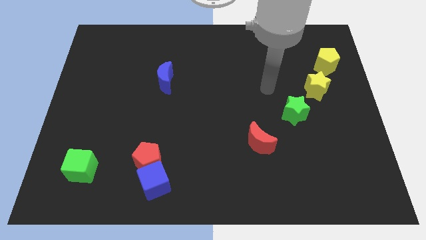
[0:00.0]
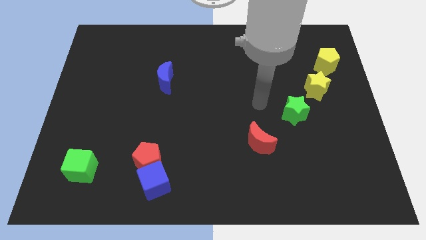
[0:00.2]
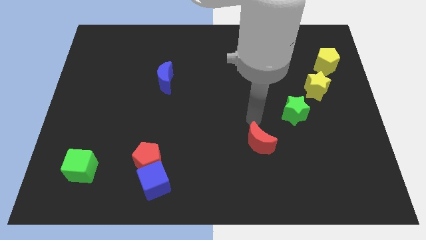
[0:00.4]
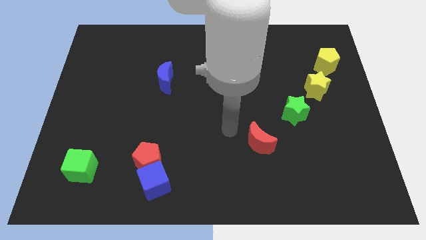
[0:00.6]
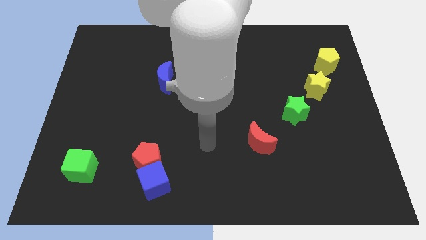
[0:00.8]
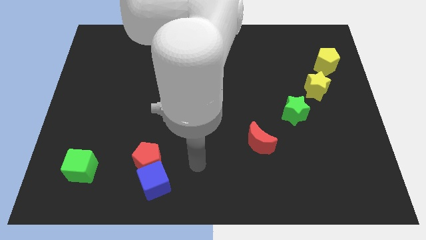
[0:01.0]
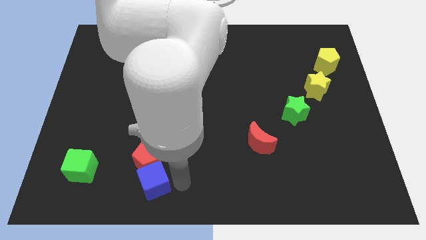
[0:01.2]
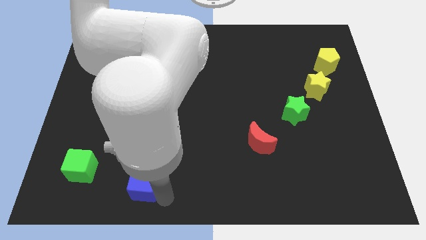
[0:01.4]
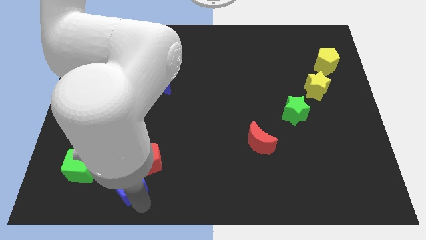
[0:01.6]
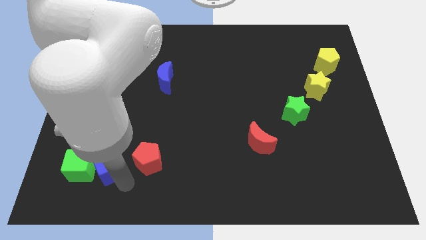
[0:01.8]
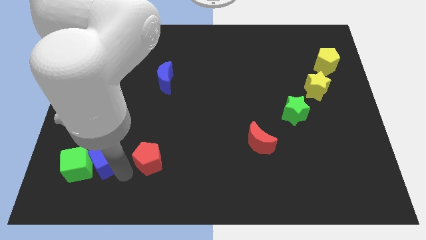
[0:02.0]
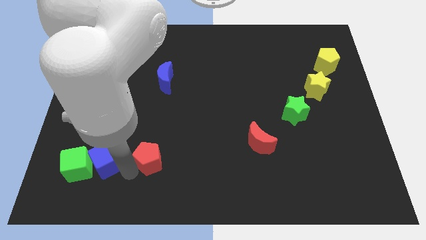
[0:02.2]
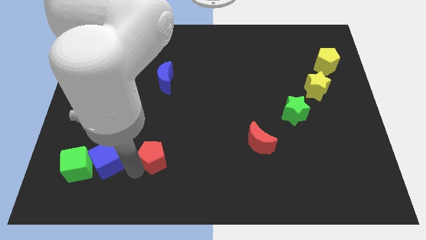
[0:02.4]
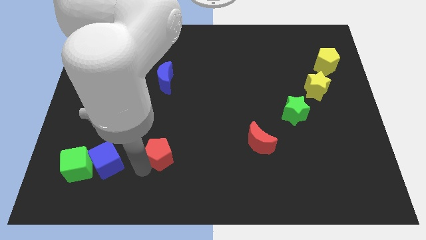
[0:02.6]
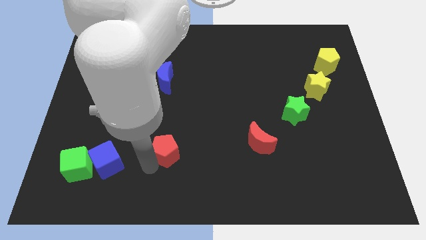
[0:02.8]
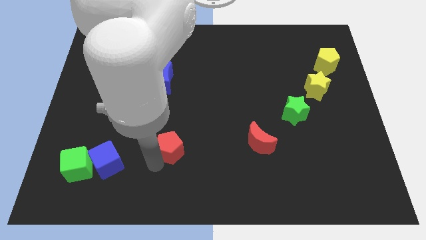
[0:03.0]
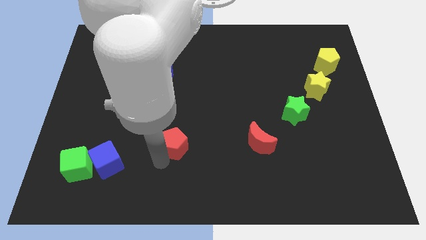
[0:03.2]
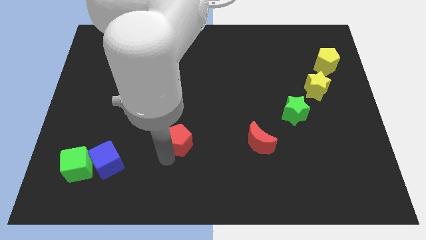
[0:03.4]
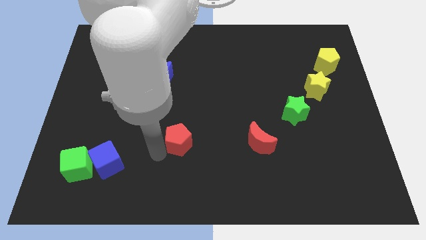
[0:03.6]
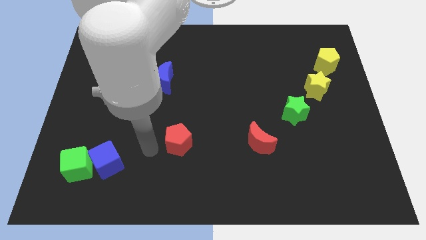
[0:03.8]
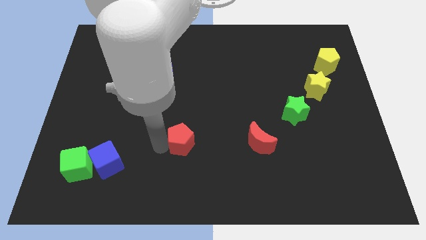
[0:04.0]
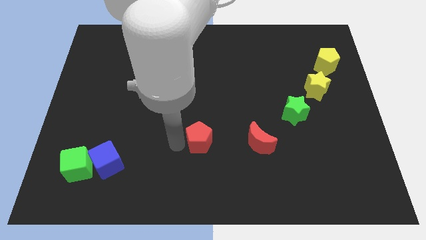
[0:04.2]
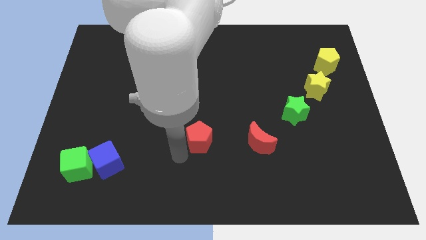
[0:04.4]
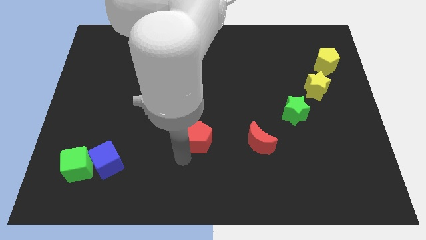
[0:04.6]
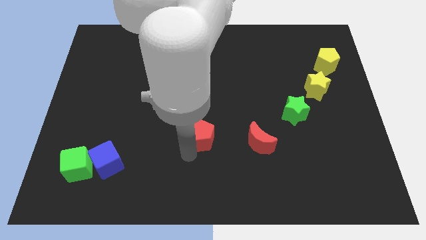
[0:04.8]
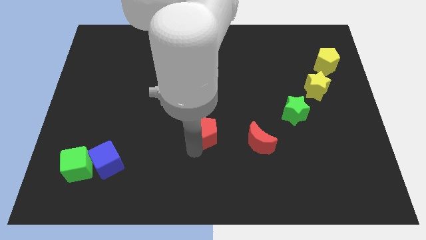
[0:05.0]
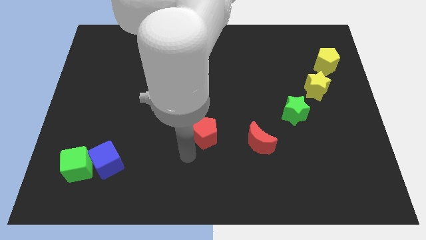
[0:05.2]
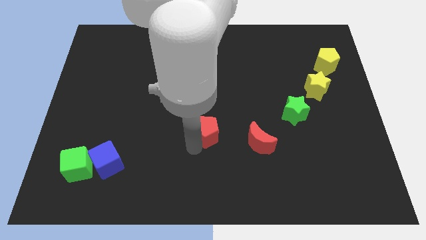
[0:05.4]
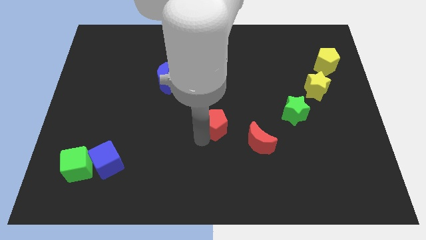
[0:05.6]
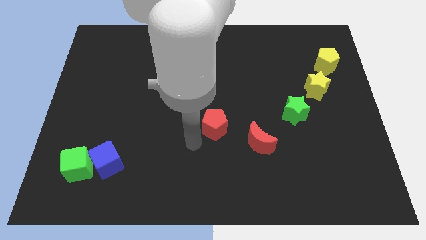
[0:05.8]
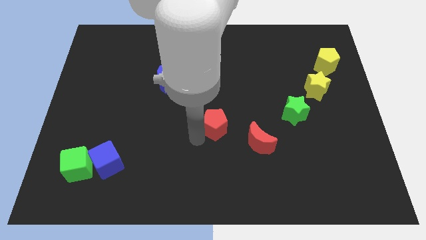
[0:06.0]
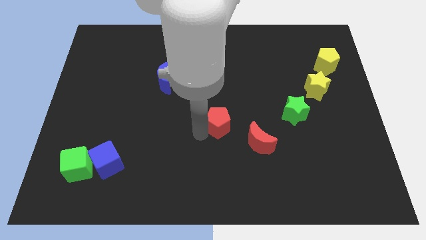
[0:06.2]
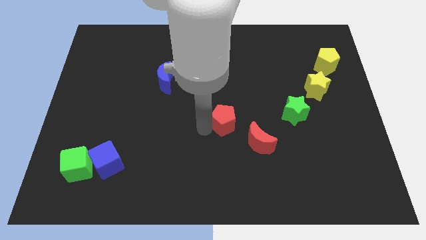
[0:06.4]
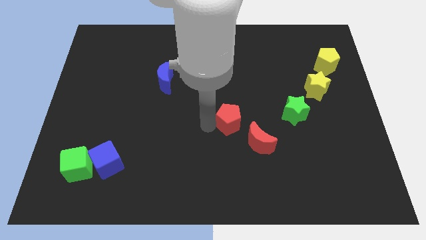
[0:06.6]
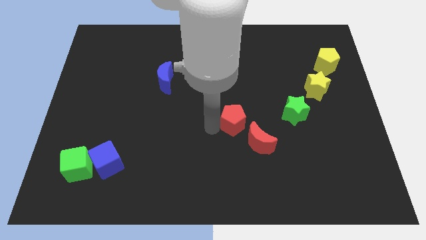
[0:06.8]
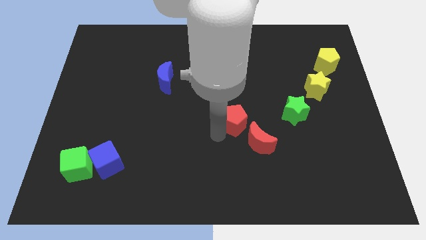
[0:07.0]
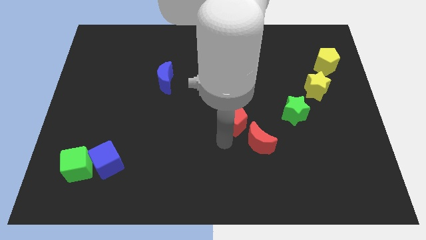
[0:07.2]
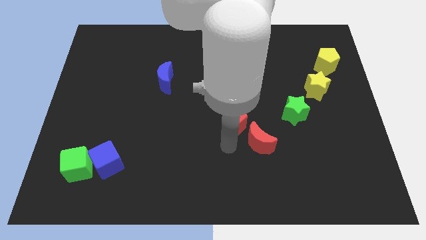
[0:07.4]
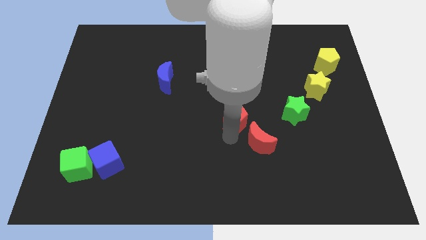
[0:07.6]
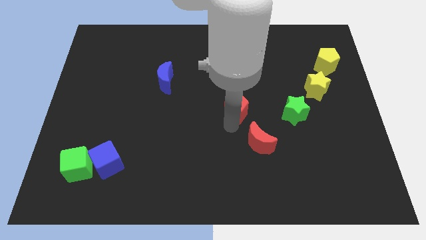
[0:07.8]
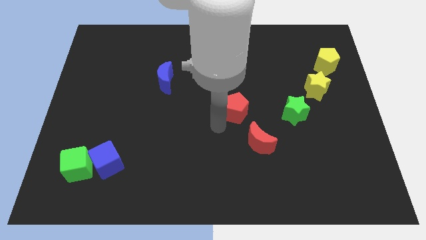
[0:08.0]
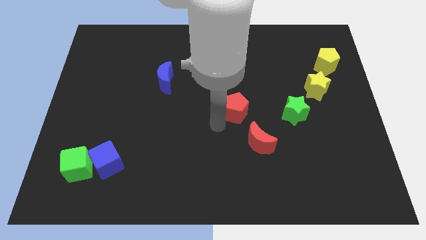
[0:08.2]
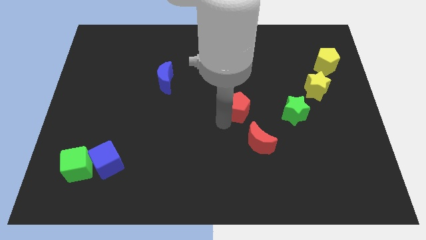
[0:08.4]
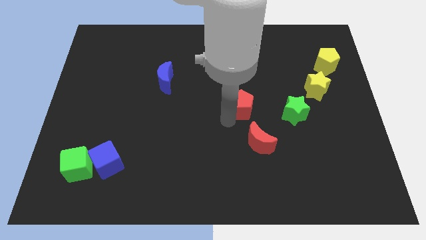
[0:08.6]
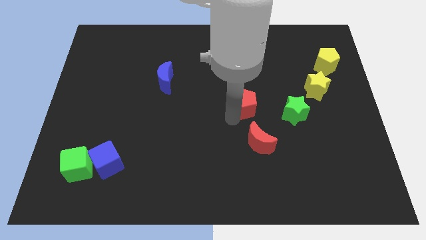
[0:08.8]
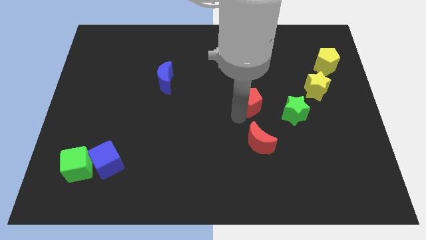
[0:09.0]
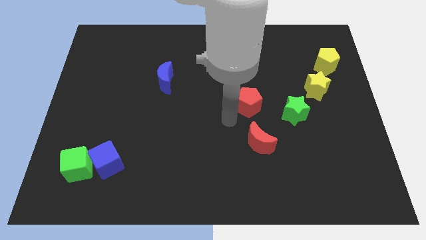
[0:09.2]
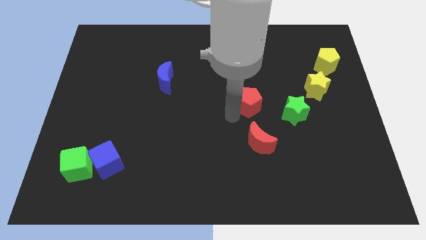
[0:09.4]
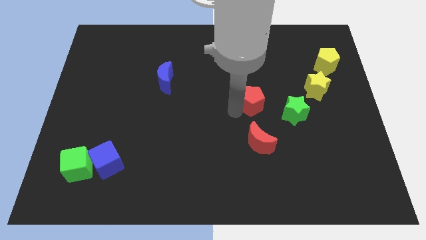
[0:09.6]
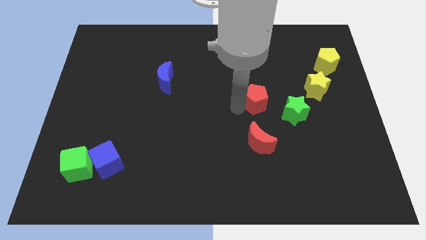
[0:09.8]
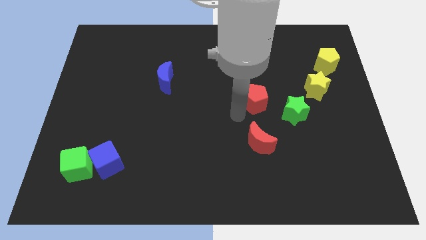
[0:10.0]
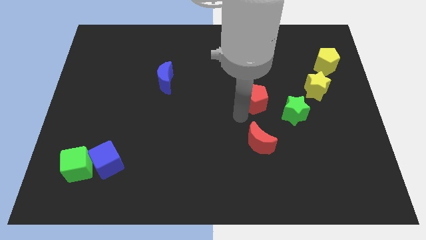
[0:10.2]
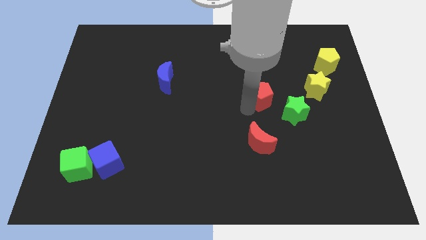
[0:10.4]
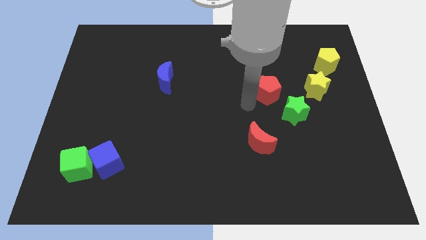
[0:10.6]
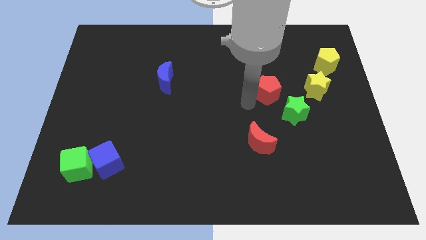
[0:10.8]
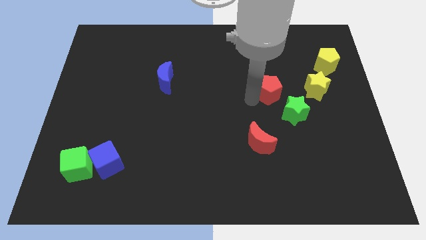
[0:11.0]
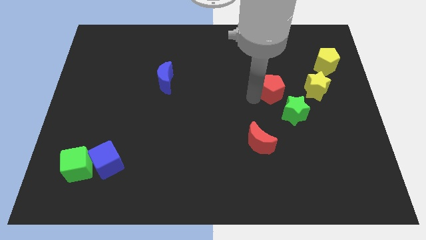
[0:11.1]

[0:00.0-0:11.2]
move the red pentagon to the top of the green star

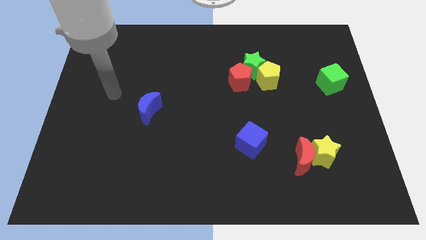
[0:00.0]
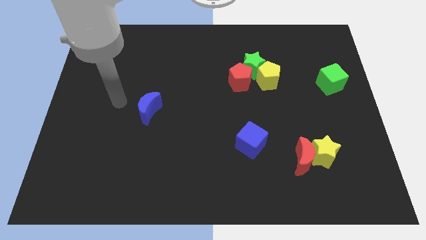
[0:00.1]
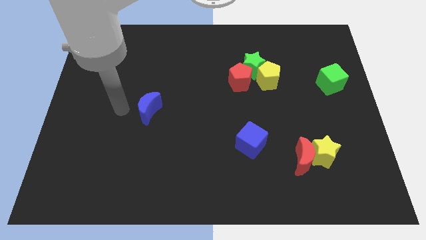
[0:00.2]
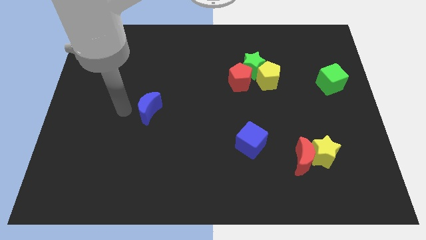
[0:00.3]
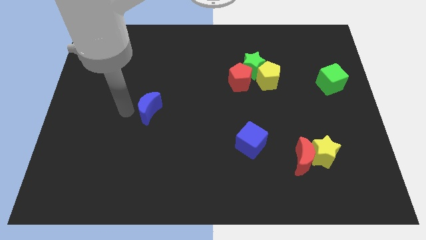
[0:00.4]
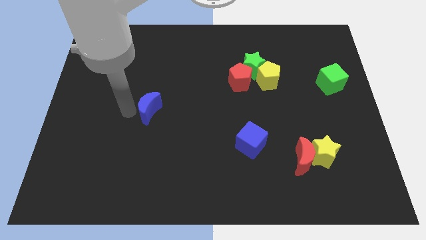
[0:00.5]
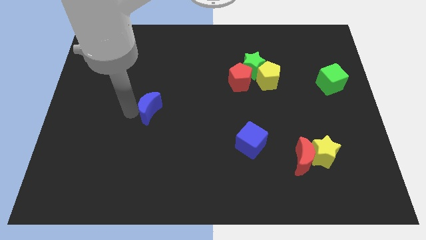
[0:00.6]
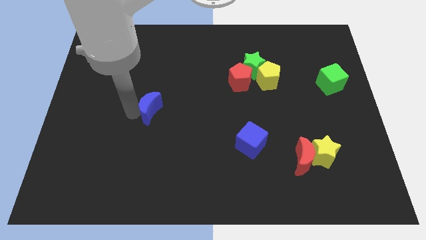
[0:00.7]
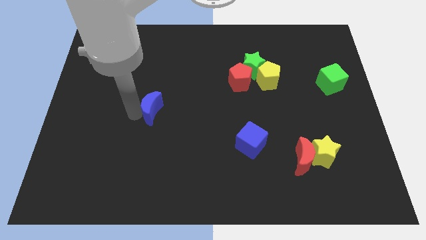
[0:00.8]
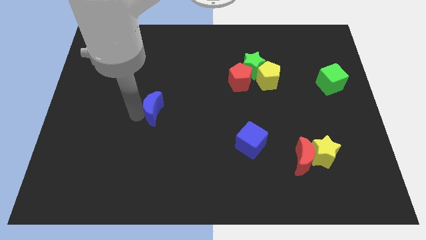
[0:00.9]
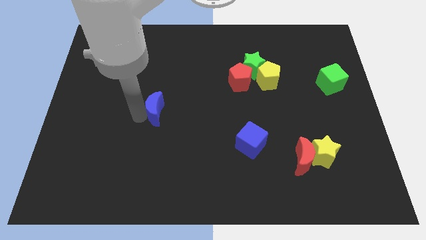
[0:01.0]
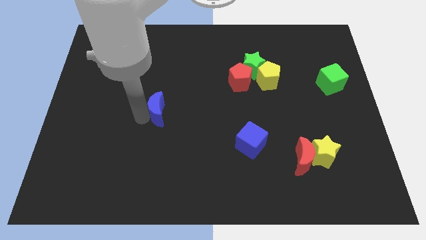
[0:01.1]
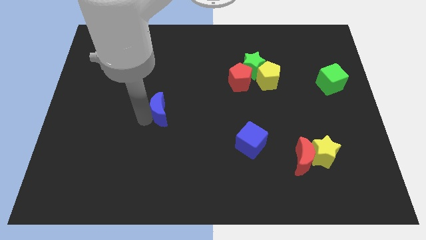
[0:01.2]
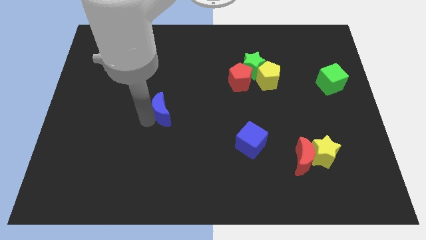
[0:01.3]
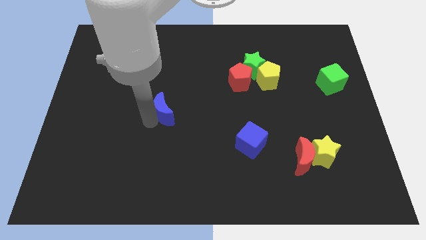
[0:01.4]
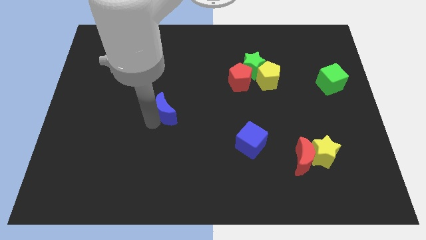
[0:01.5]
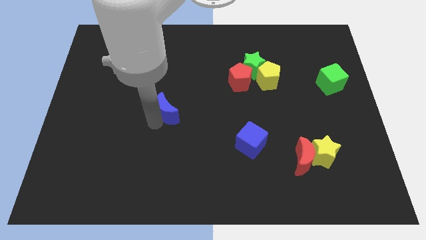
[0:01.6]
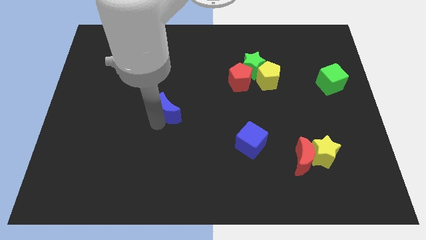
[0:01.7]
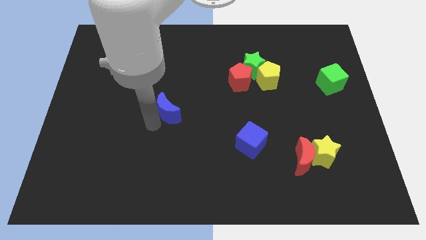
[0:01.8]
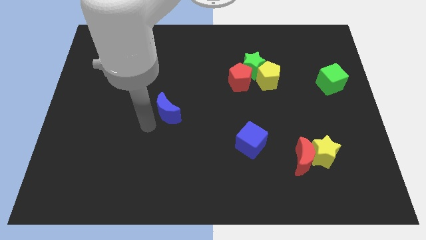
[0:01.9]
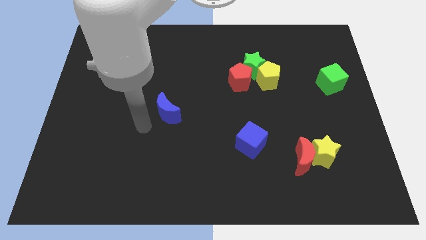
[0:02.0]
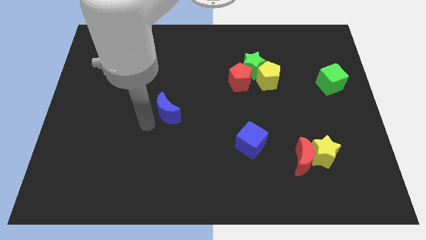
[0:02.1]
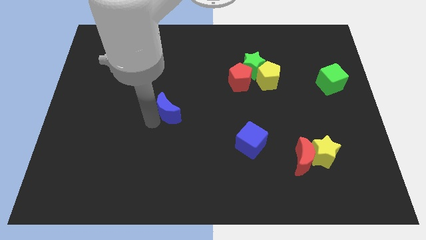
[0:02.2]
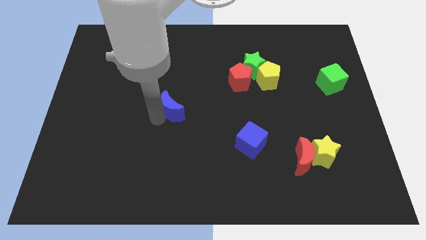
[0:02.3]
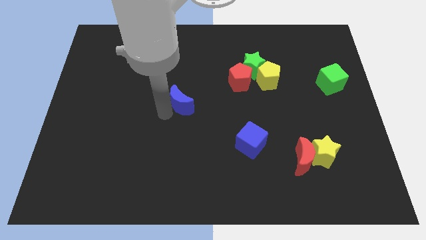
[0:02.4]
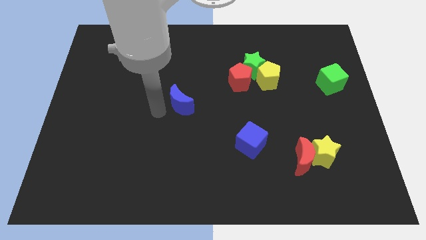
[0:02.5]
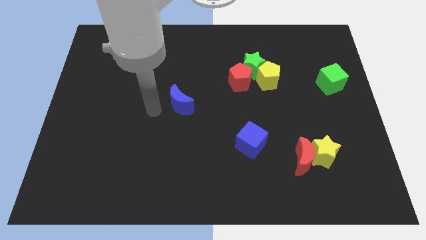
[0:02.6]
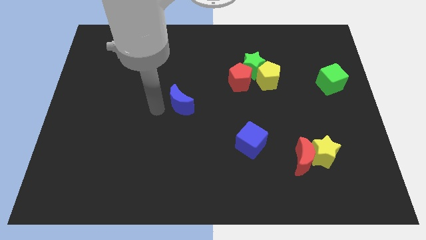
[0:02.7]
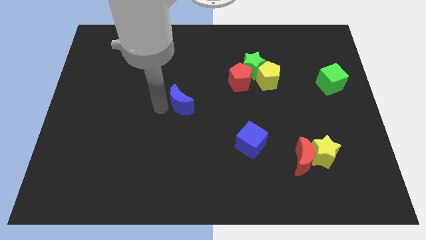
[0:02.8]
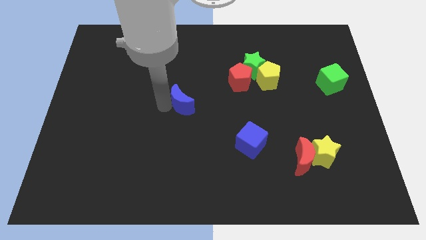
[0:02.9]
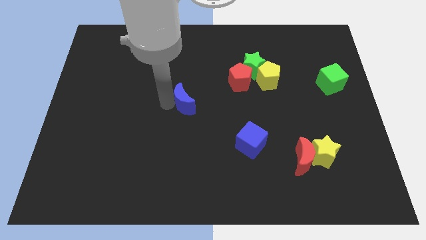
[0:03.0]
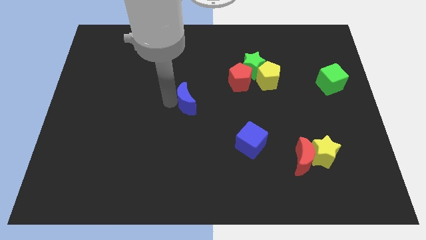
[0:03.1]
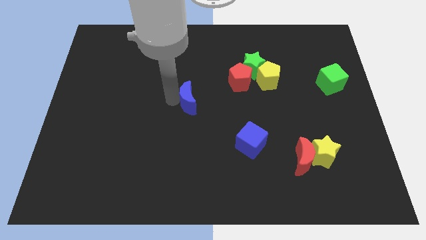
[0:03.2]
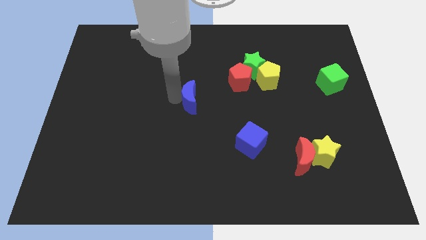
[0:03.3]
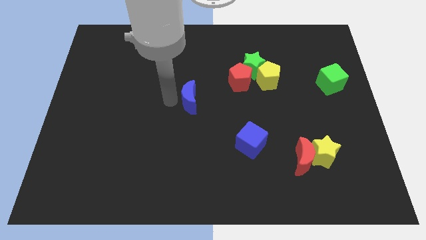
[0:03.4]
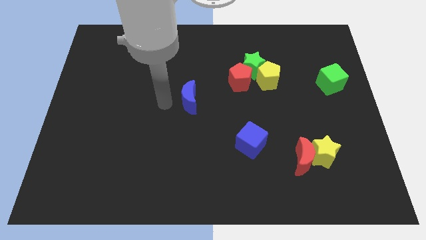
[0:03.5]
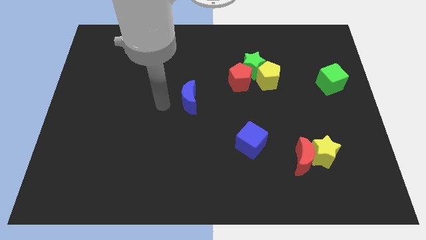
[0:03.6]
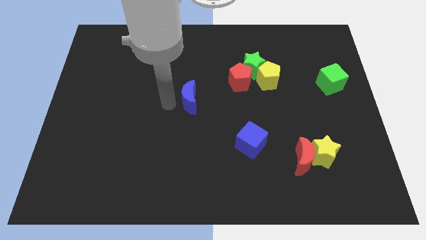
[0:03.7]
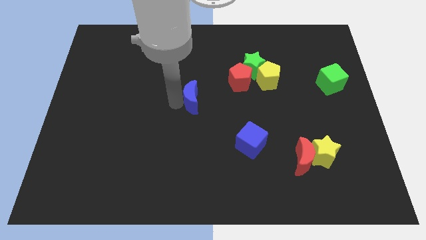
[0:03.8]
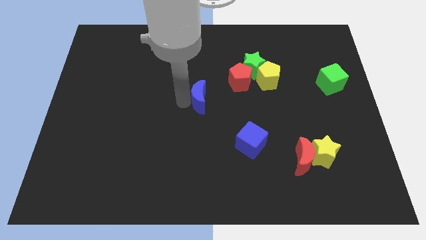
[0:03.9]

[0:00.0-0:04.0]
put the blue moon to the bottom left side of the red pentagon
